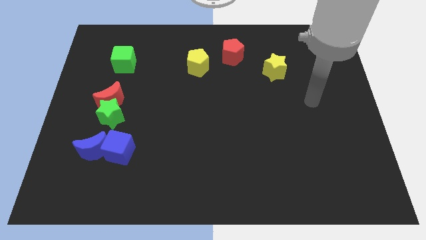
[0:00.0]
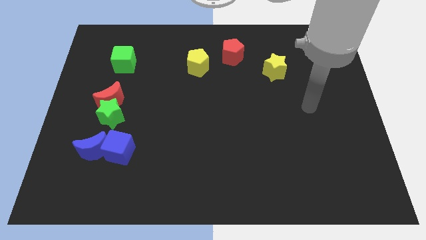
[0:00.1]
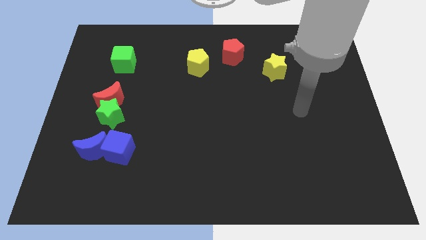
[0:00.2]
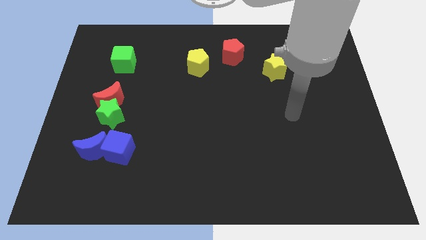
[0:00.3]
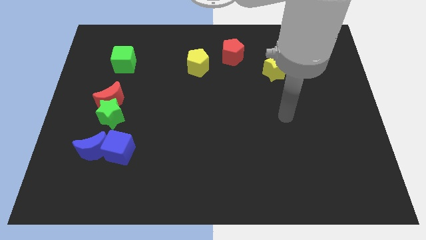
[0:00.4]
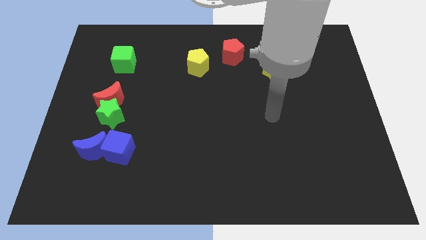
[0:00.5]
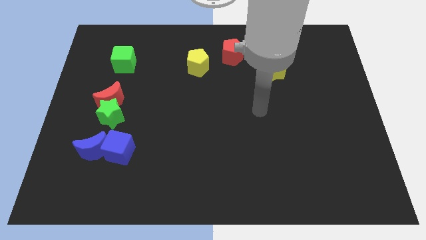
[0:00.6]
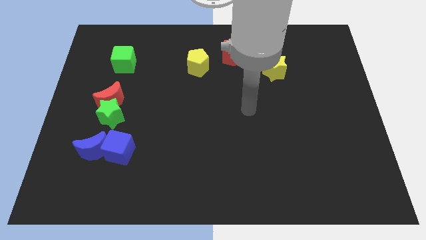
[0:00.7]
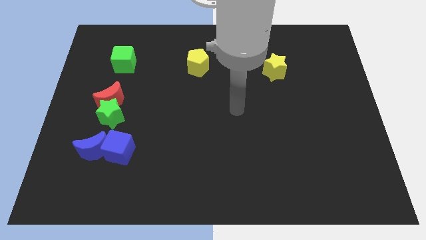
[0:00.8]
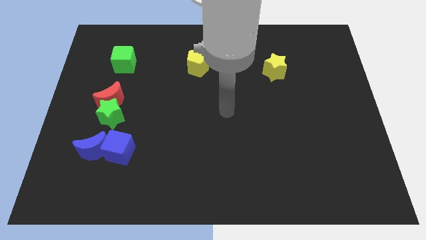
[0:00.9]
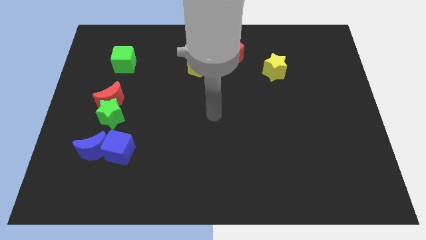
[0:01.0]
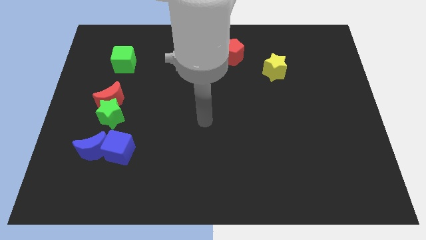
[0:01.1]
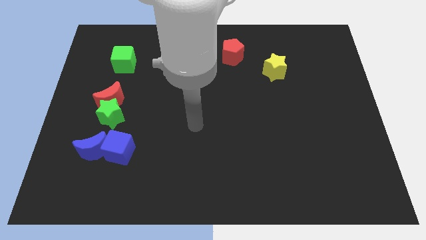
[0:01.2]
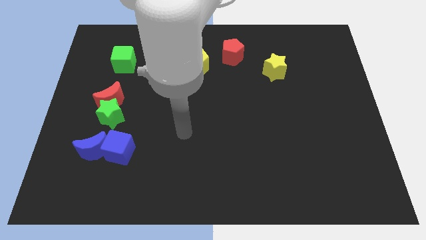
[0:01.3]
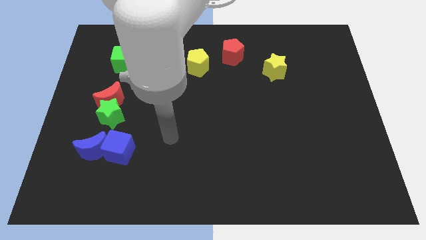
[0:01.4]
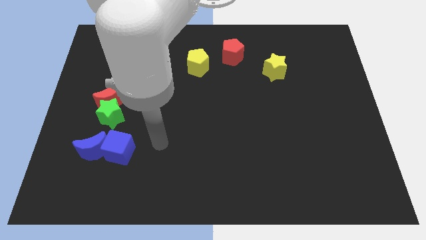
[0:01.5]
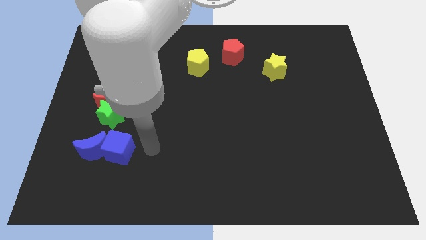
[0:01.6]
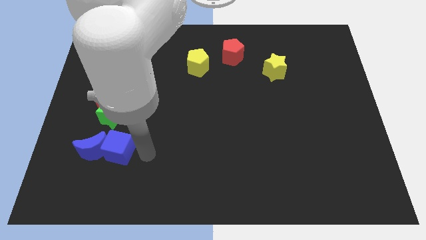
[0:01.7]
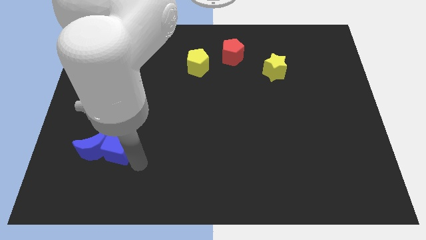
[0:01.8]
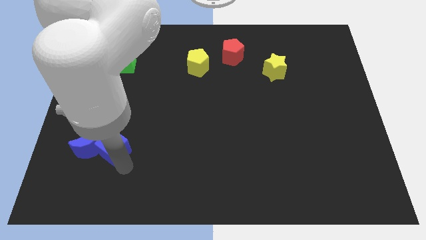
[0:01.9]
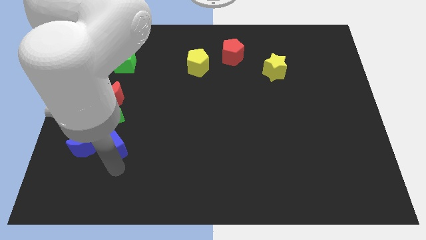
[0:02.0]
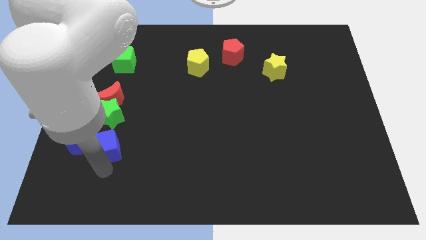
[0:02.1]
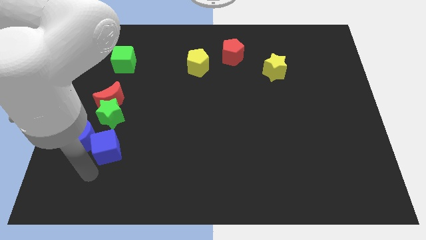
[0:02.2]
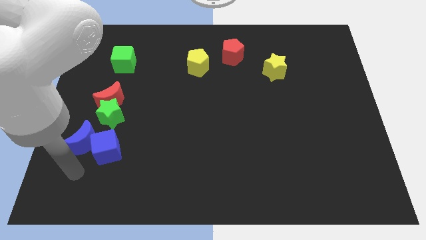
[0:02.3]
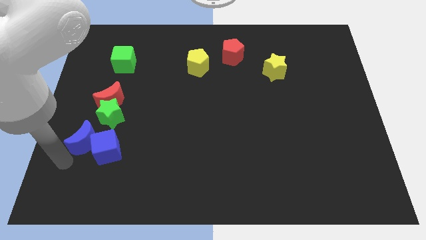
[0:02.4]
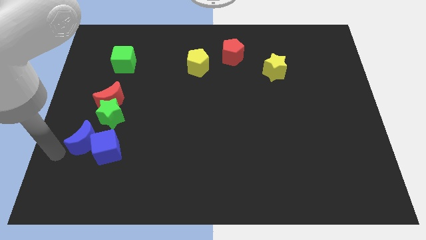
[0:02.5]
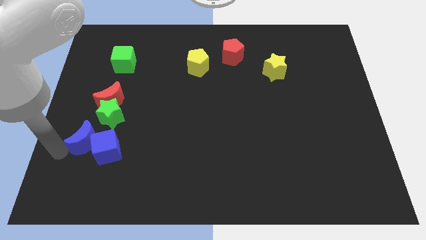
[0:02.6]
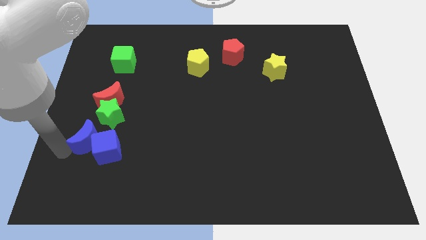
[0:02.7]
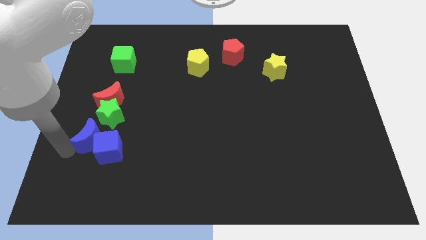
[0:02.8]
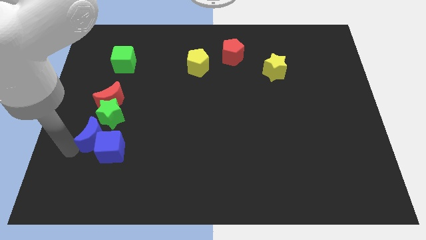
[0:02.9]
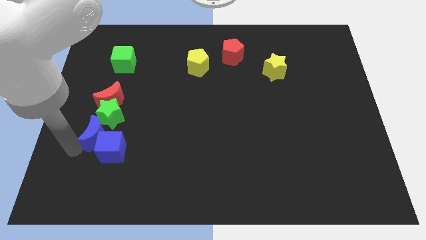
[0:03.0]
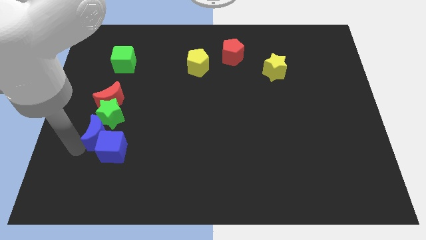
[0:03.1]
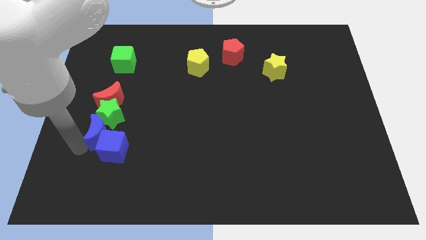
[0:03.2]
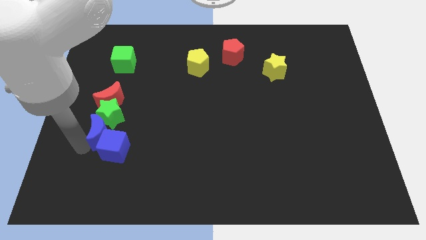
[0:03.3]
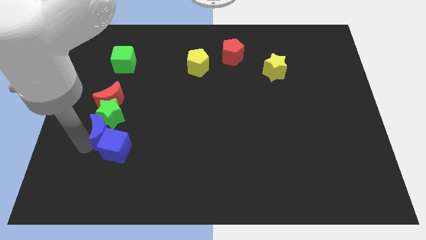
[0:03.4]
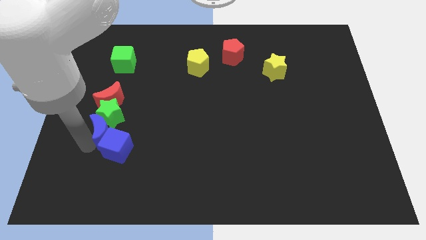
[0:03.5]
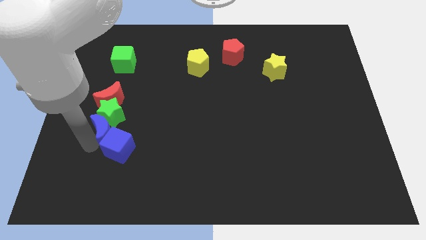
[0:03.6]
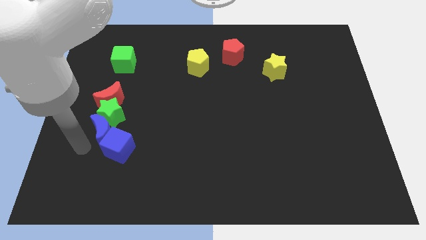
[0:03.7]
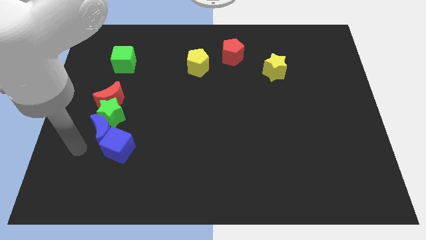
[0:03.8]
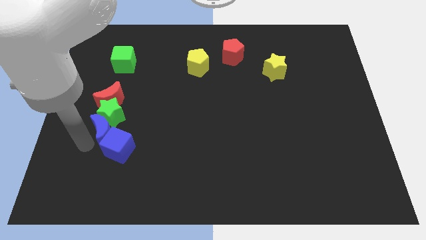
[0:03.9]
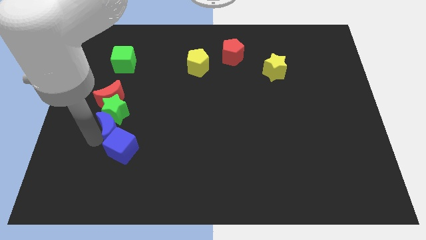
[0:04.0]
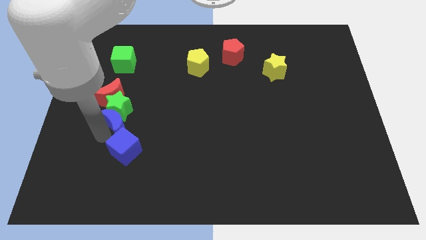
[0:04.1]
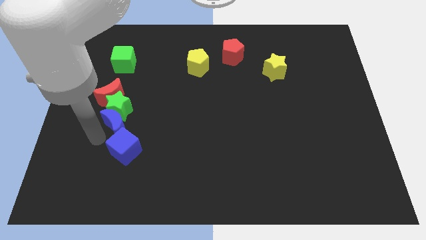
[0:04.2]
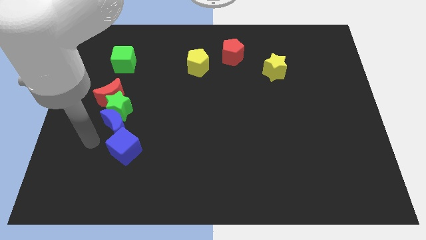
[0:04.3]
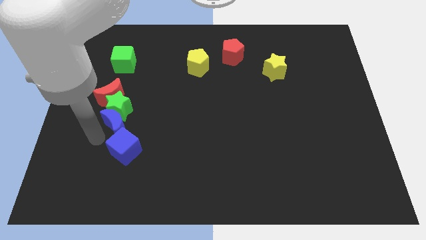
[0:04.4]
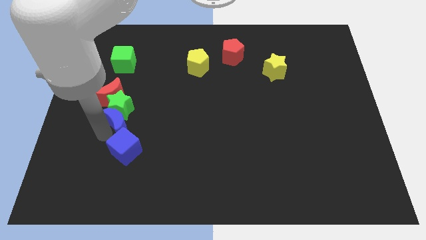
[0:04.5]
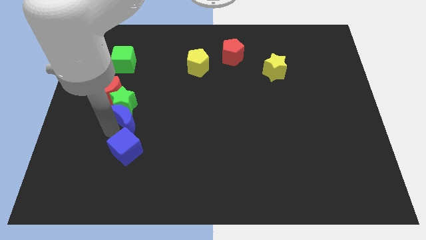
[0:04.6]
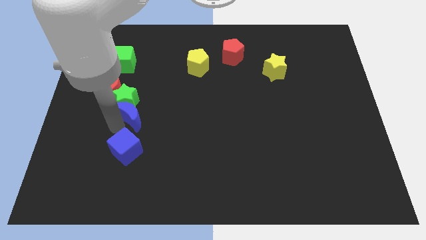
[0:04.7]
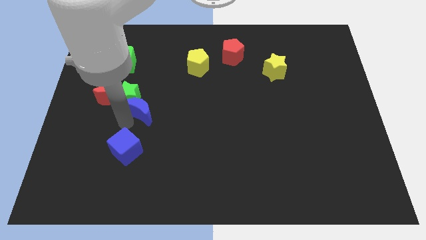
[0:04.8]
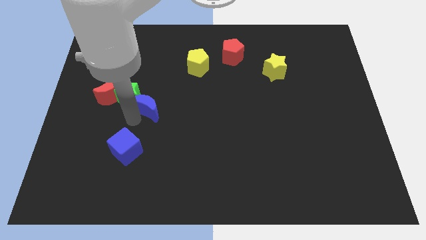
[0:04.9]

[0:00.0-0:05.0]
slide the blue moon to the right side of the red moon

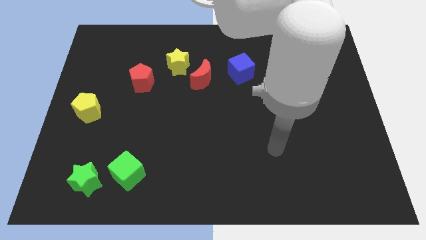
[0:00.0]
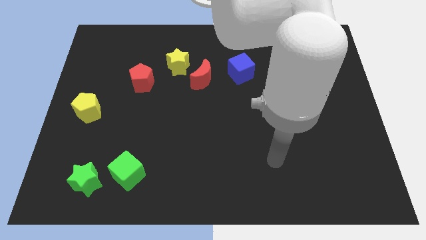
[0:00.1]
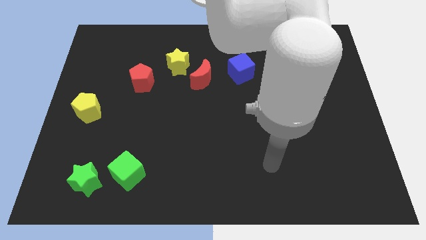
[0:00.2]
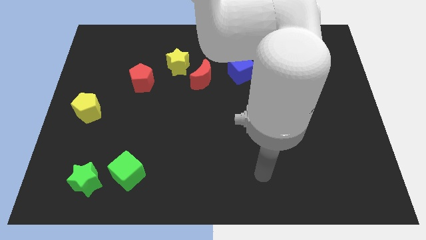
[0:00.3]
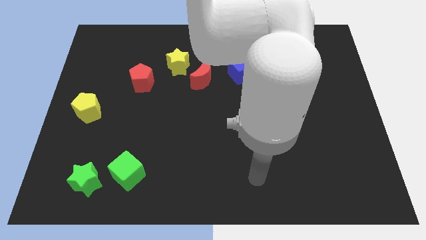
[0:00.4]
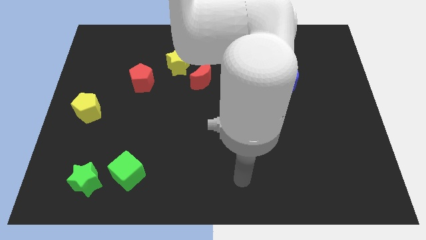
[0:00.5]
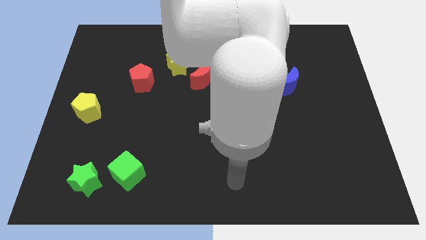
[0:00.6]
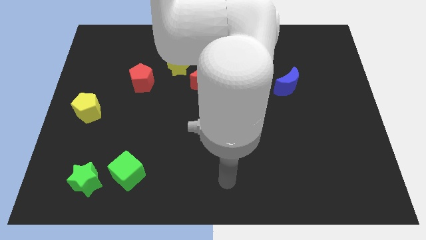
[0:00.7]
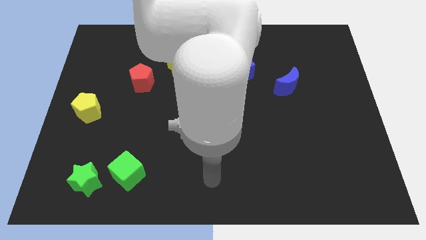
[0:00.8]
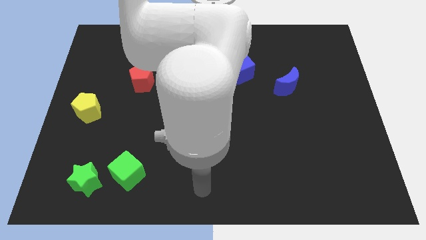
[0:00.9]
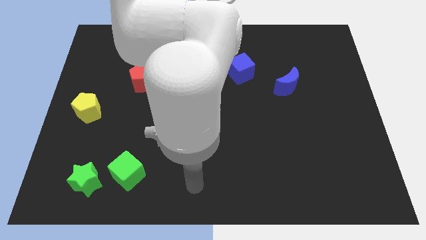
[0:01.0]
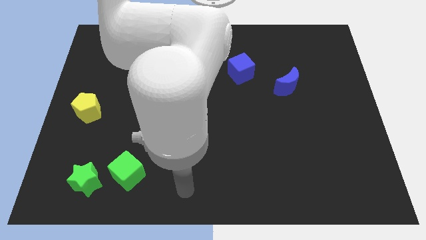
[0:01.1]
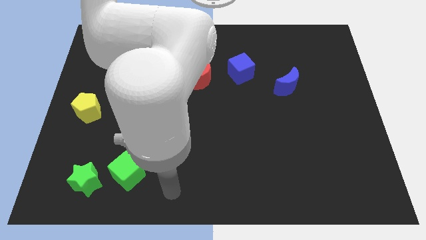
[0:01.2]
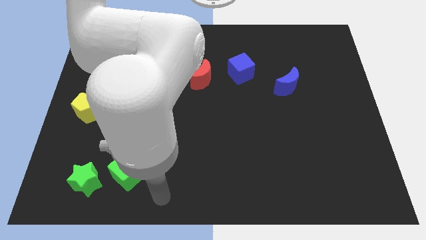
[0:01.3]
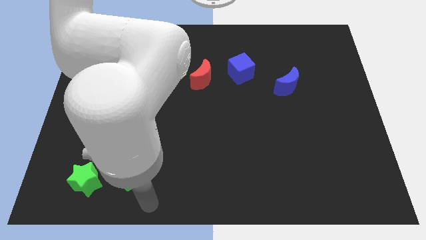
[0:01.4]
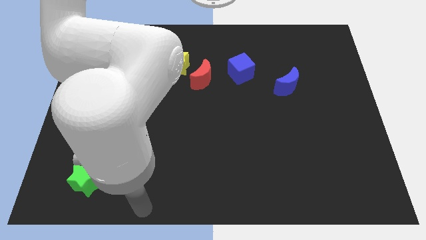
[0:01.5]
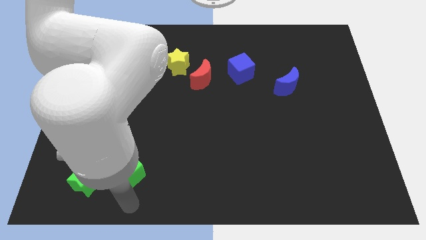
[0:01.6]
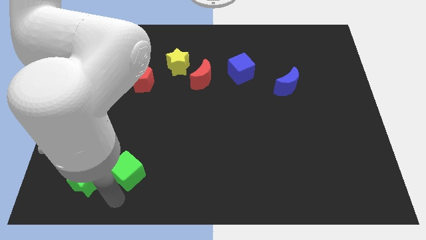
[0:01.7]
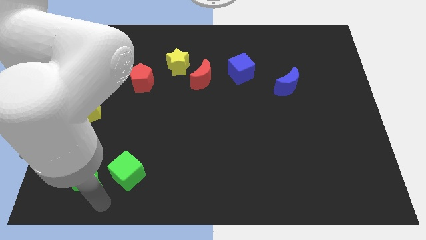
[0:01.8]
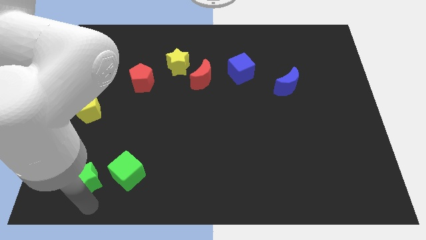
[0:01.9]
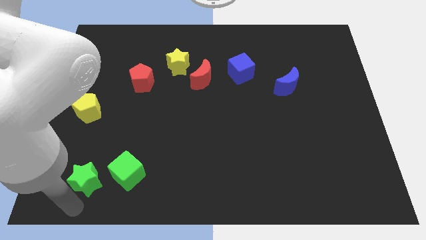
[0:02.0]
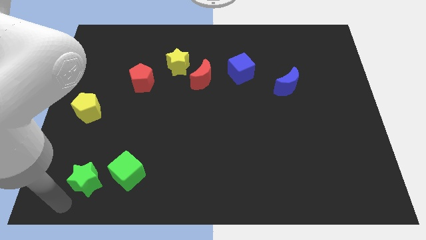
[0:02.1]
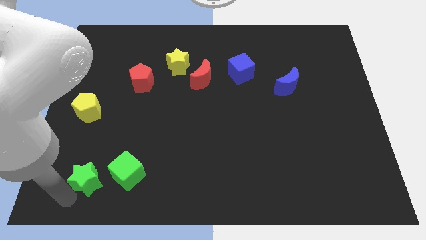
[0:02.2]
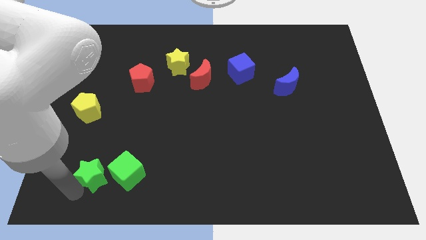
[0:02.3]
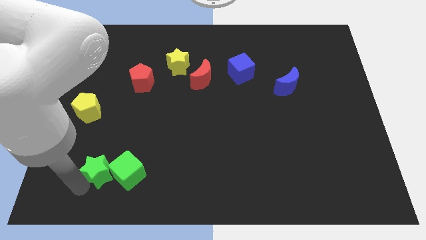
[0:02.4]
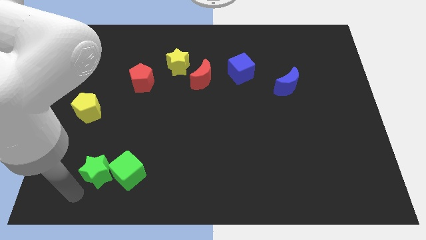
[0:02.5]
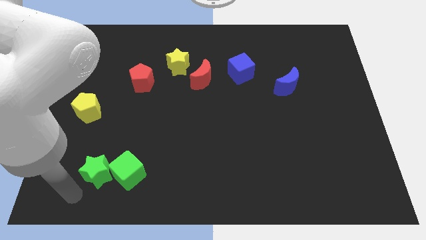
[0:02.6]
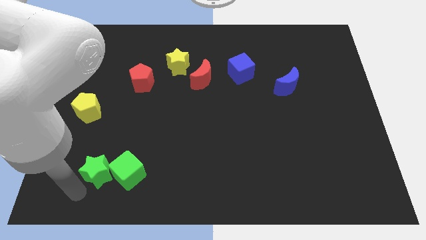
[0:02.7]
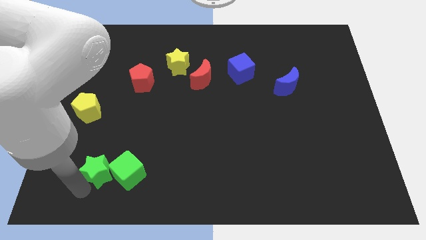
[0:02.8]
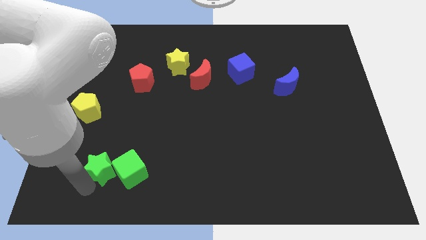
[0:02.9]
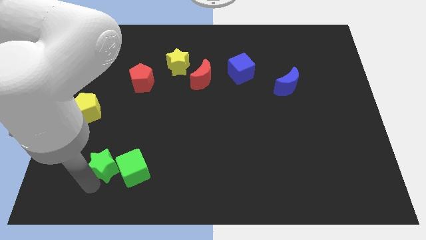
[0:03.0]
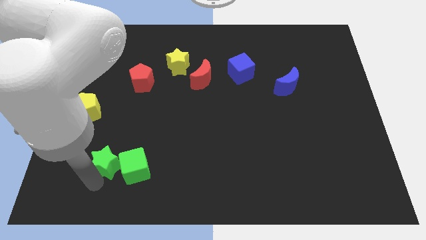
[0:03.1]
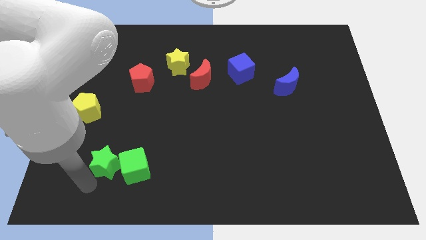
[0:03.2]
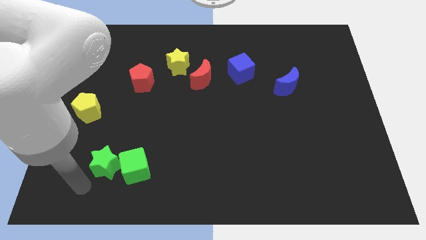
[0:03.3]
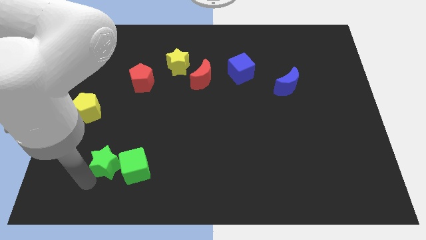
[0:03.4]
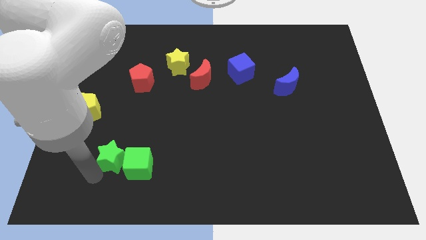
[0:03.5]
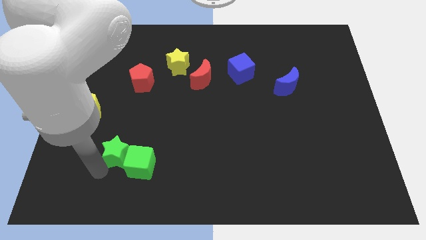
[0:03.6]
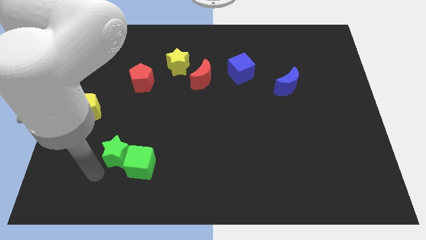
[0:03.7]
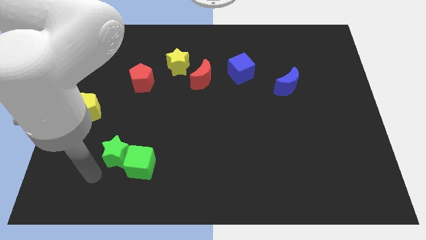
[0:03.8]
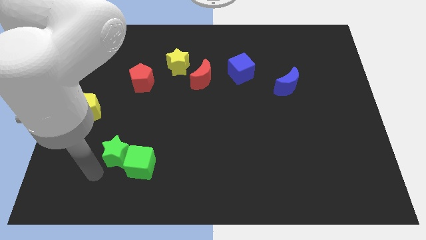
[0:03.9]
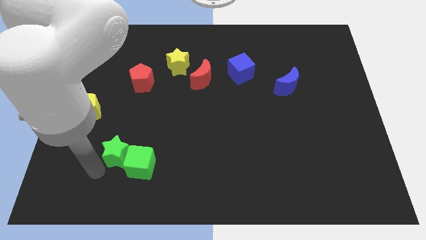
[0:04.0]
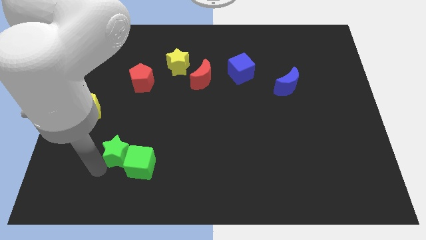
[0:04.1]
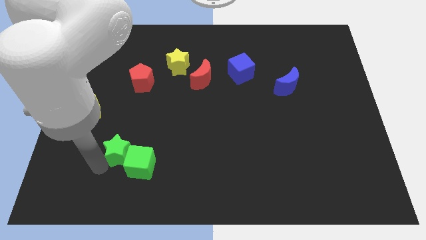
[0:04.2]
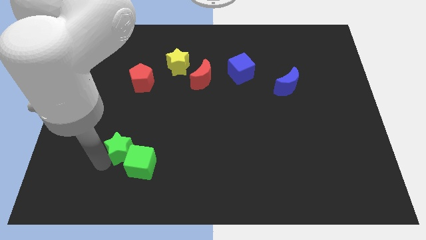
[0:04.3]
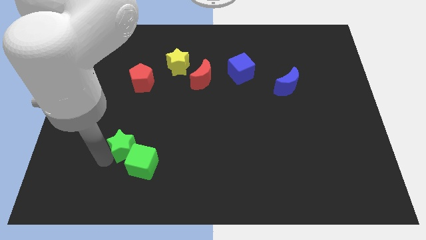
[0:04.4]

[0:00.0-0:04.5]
push the green star to the top side of the green cube
